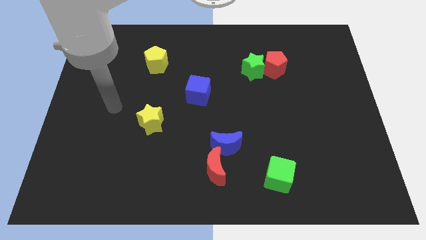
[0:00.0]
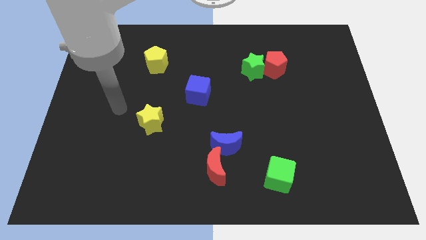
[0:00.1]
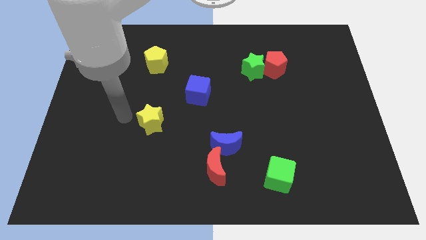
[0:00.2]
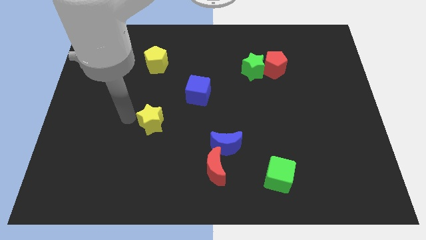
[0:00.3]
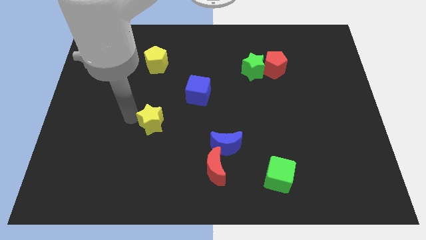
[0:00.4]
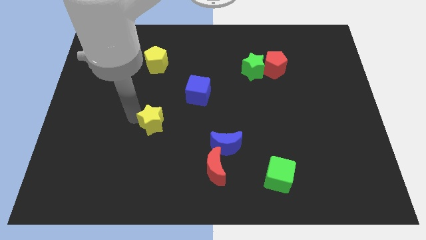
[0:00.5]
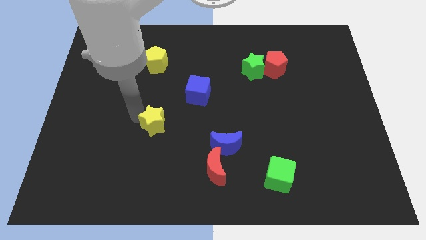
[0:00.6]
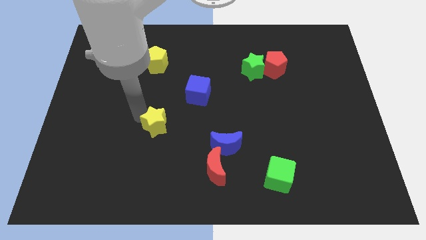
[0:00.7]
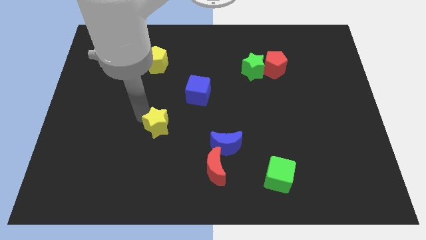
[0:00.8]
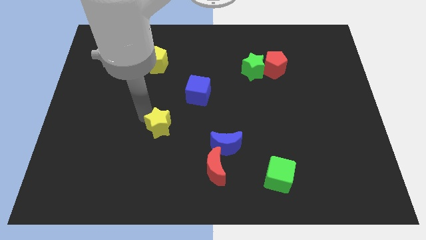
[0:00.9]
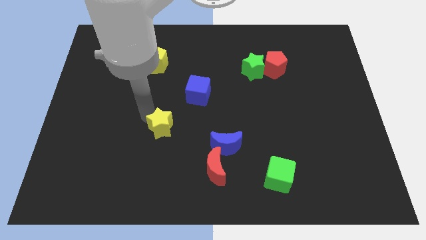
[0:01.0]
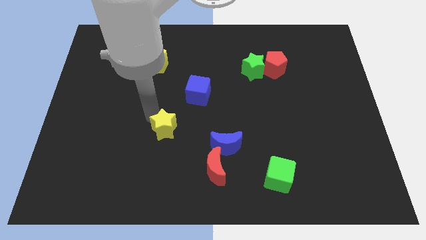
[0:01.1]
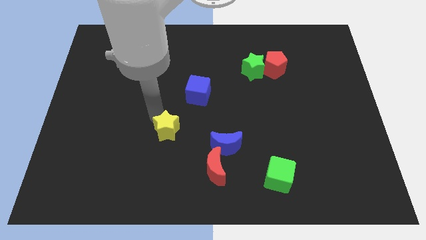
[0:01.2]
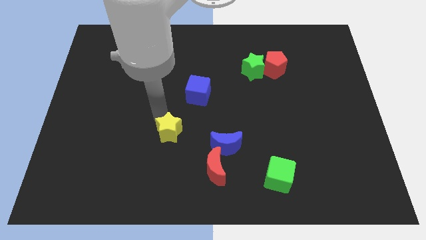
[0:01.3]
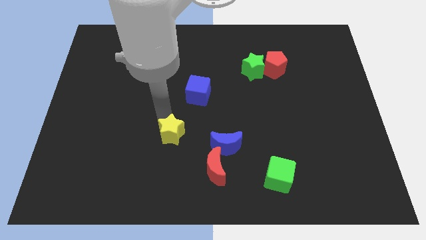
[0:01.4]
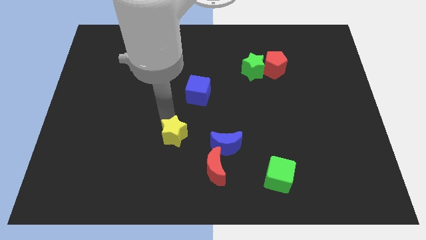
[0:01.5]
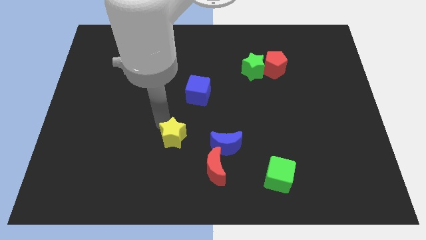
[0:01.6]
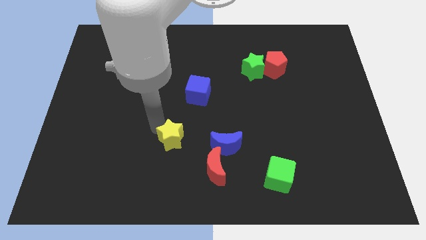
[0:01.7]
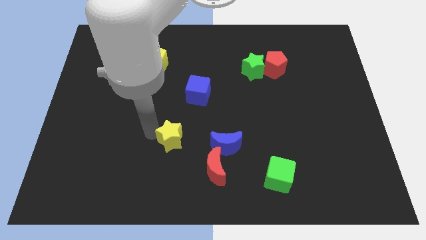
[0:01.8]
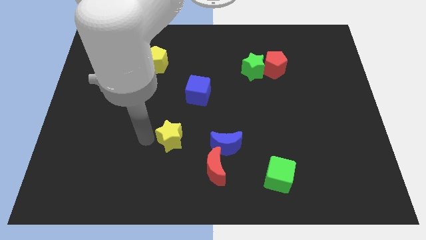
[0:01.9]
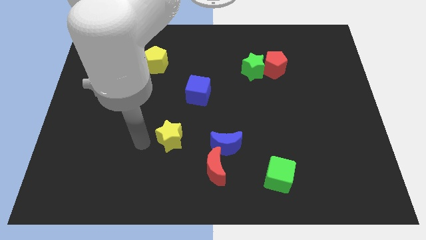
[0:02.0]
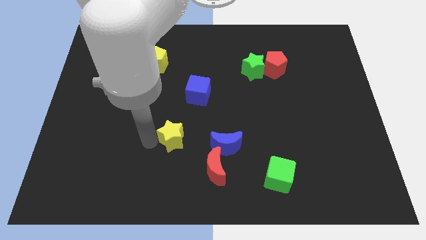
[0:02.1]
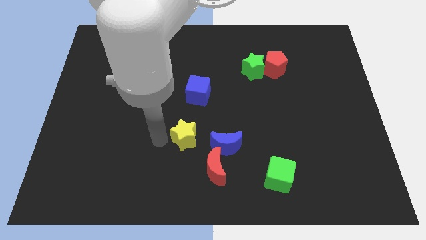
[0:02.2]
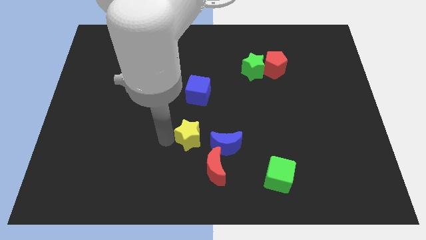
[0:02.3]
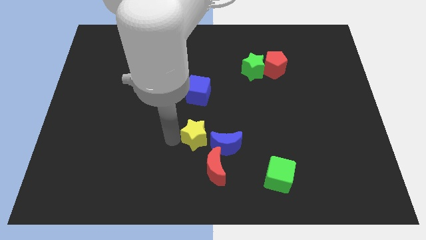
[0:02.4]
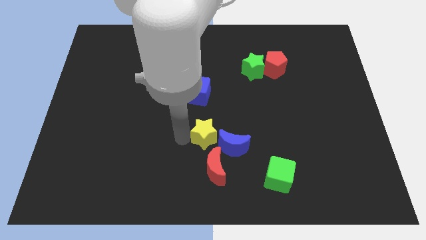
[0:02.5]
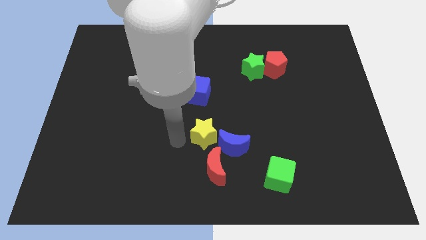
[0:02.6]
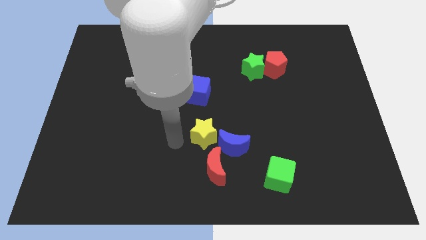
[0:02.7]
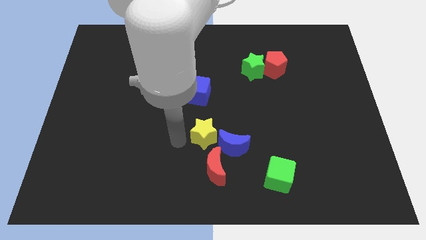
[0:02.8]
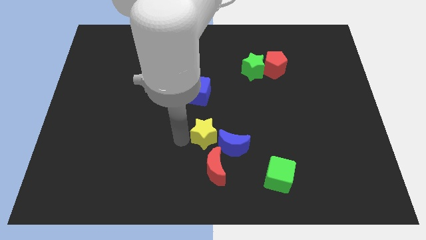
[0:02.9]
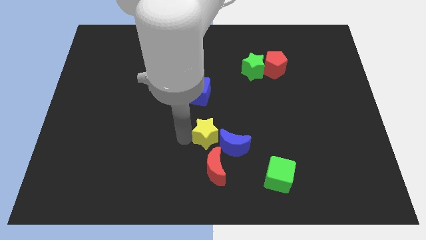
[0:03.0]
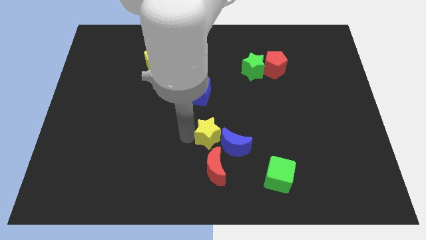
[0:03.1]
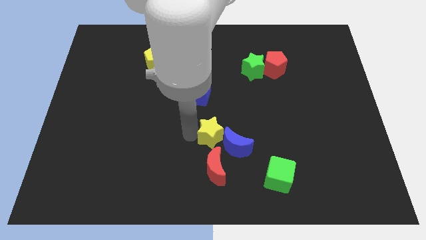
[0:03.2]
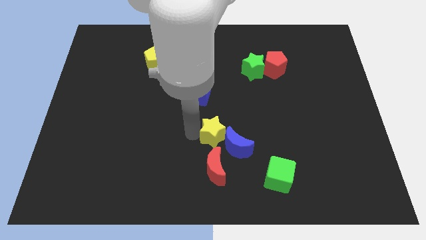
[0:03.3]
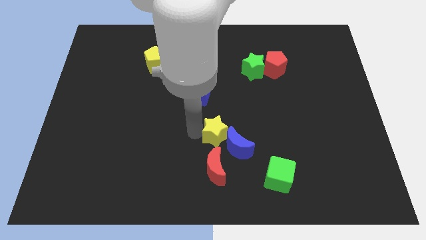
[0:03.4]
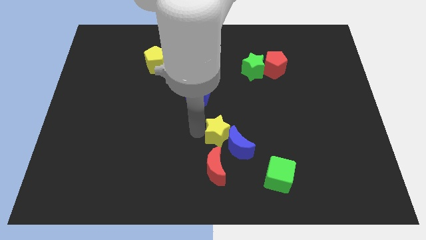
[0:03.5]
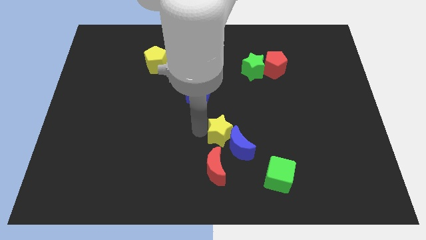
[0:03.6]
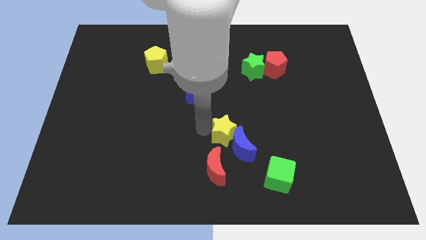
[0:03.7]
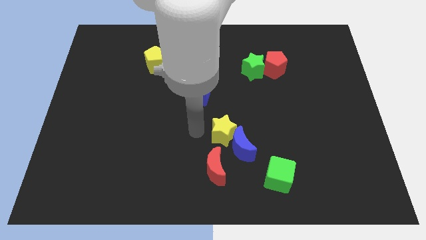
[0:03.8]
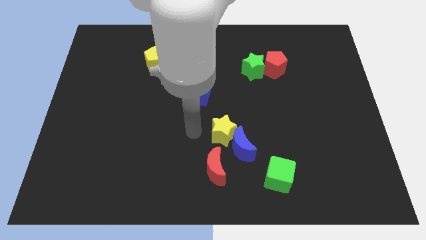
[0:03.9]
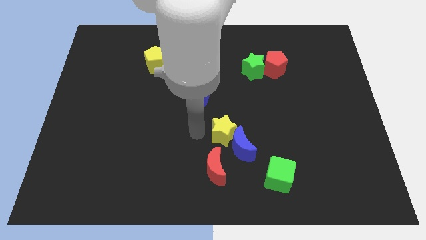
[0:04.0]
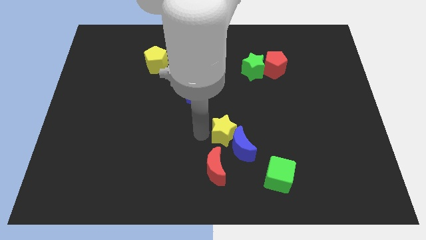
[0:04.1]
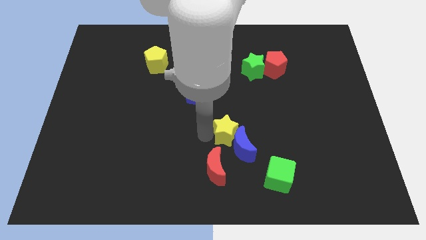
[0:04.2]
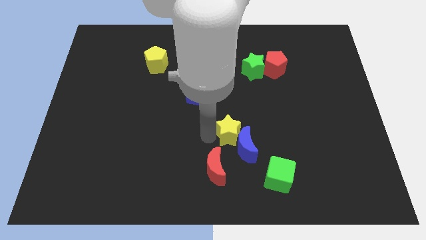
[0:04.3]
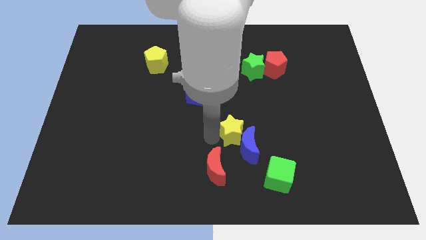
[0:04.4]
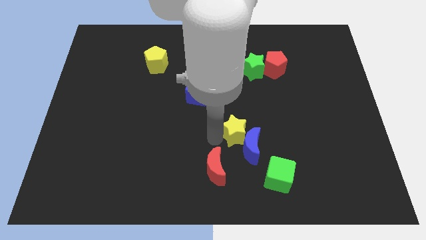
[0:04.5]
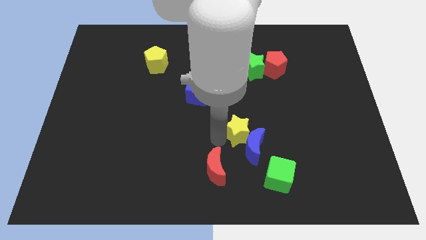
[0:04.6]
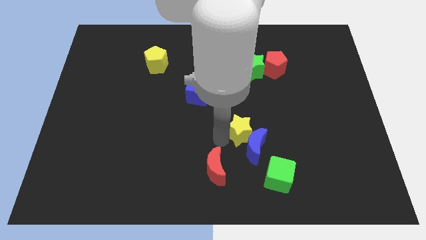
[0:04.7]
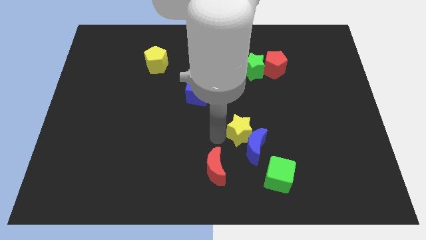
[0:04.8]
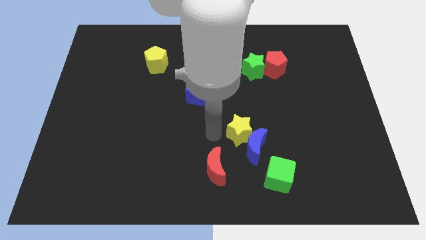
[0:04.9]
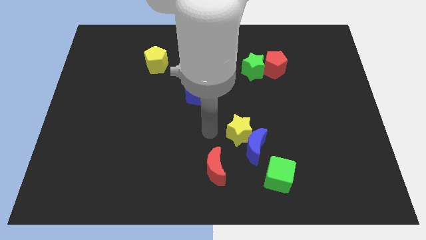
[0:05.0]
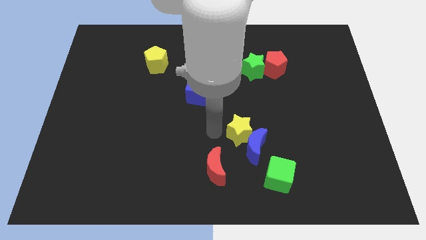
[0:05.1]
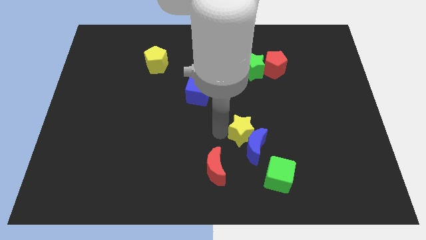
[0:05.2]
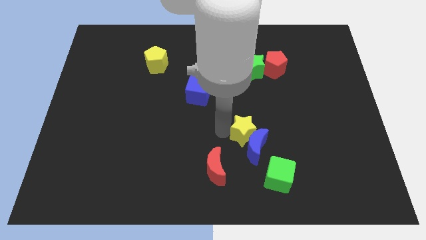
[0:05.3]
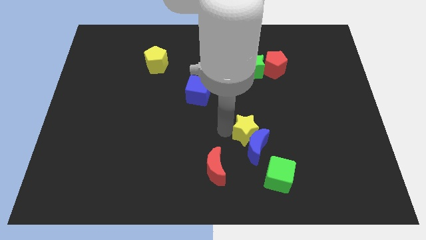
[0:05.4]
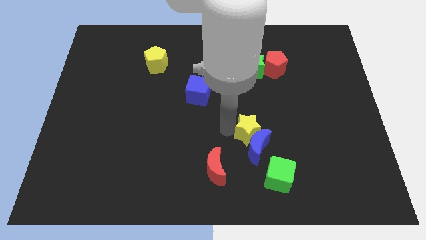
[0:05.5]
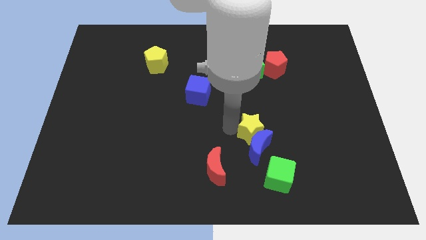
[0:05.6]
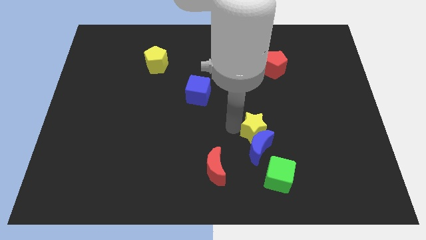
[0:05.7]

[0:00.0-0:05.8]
push the yellow star above the green cube

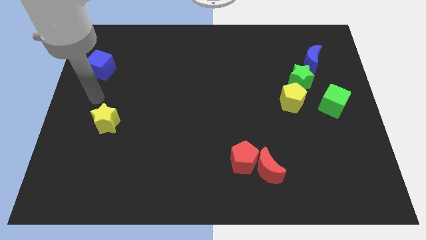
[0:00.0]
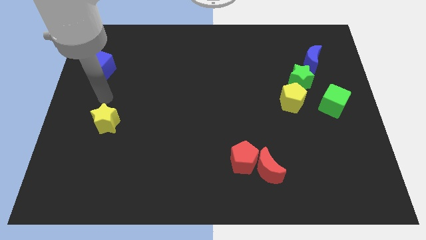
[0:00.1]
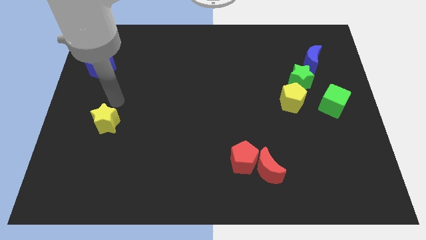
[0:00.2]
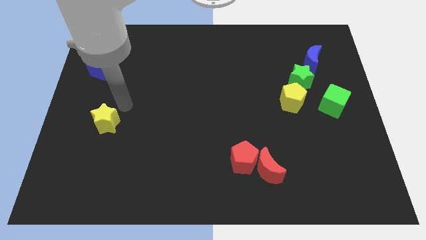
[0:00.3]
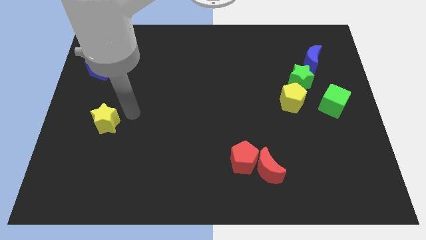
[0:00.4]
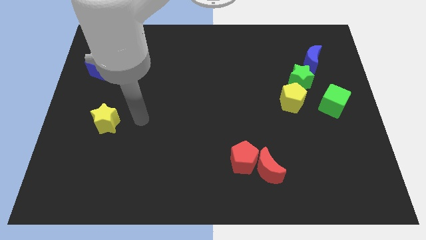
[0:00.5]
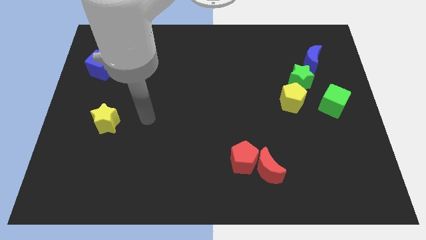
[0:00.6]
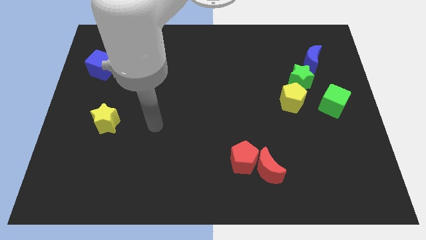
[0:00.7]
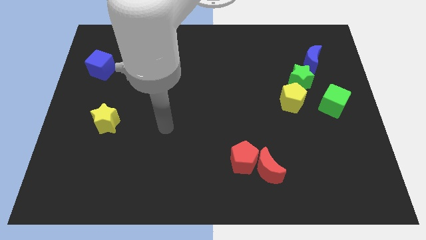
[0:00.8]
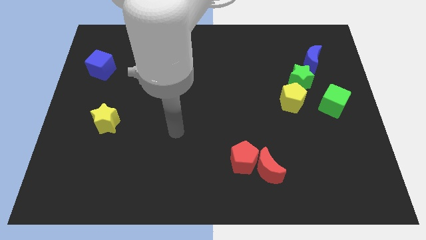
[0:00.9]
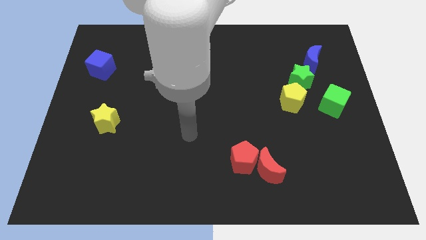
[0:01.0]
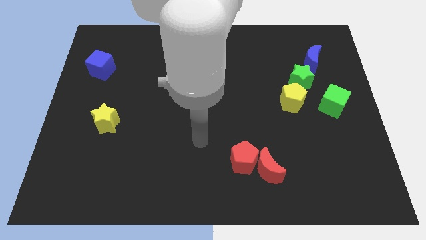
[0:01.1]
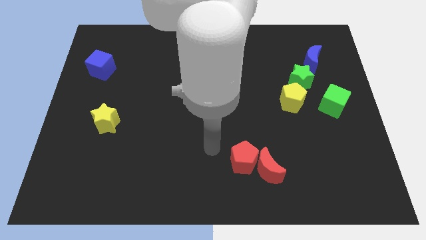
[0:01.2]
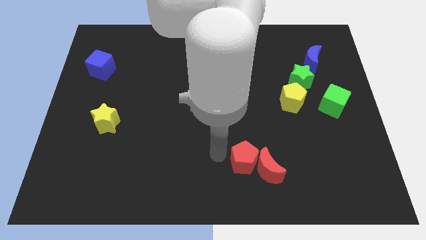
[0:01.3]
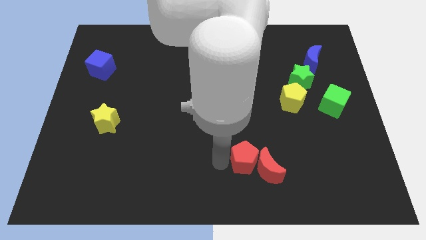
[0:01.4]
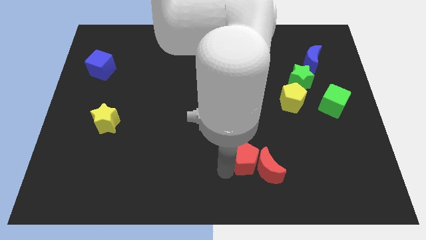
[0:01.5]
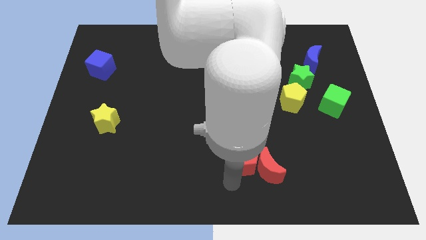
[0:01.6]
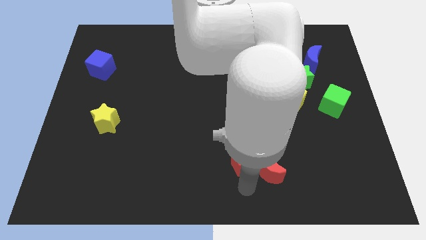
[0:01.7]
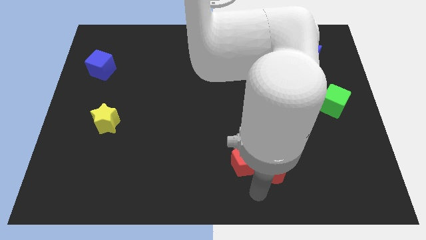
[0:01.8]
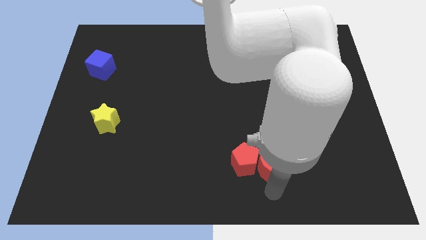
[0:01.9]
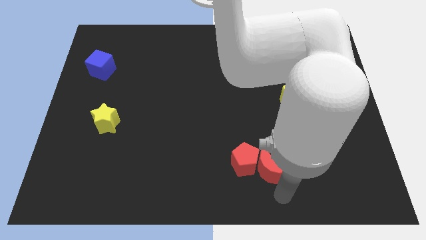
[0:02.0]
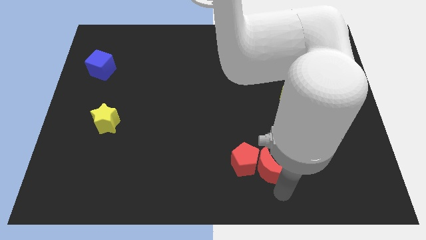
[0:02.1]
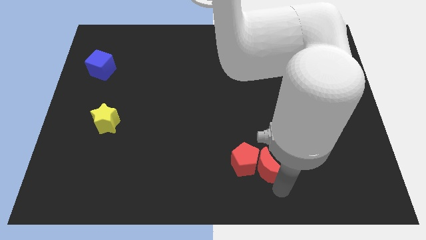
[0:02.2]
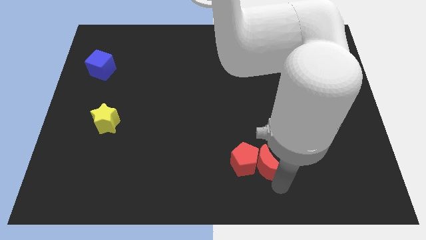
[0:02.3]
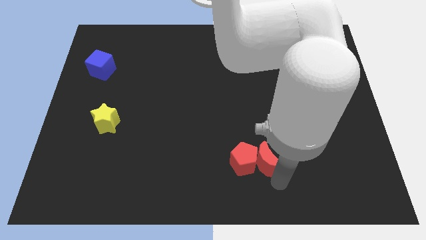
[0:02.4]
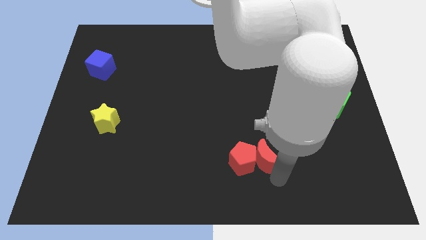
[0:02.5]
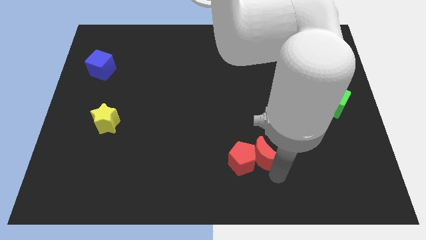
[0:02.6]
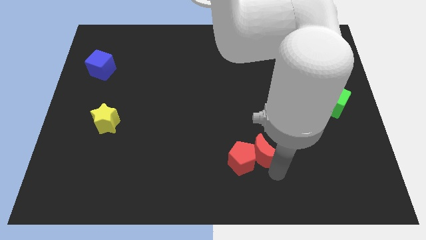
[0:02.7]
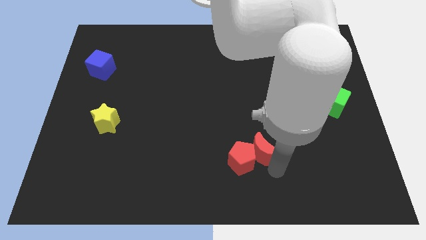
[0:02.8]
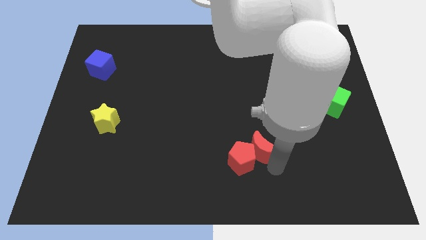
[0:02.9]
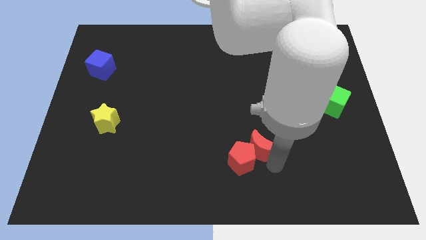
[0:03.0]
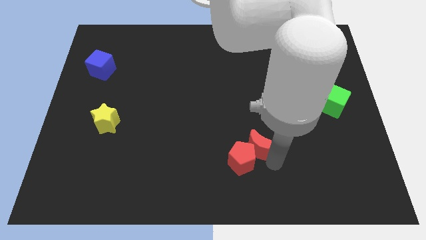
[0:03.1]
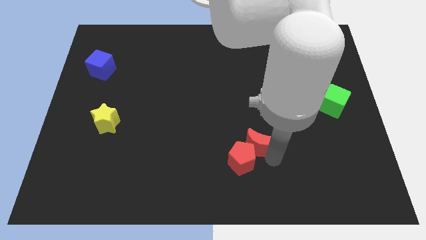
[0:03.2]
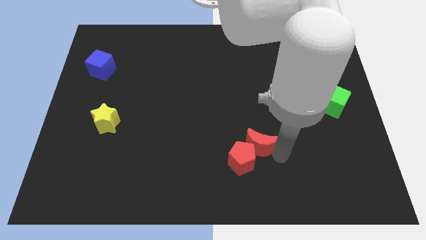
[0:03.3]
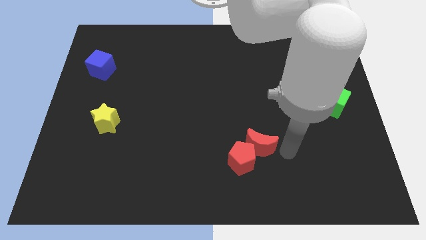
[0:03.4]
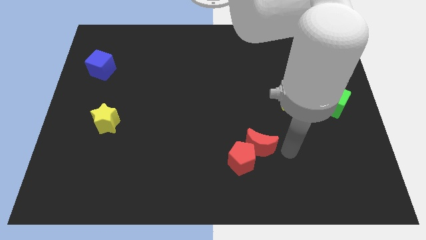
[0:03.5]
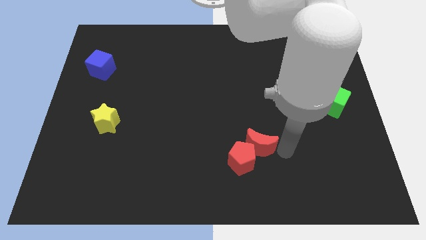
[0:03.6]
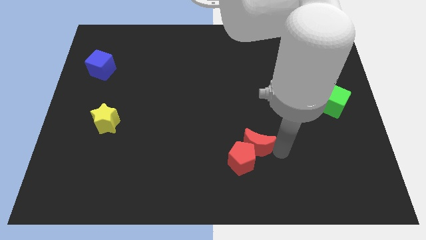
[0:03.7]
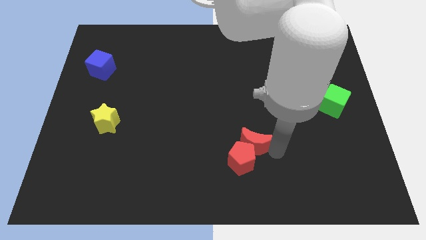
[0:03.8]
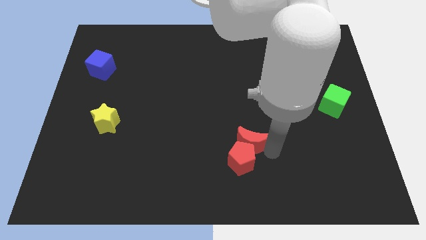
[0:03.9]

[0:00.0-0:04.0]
push the red moon to the top left side of the red pentagon
